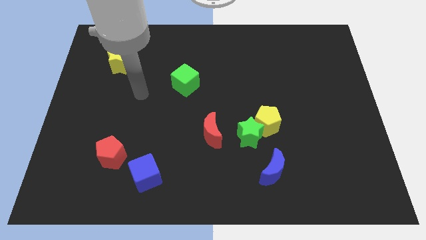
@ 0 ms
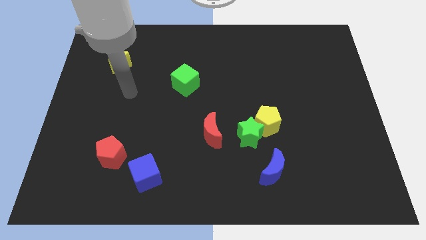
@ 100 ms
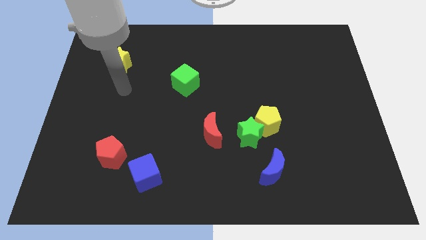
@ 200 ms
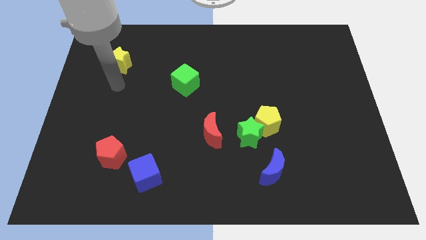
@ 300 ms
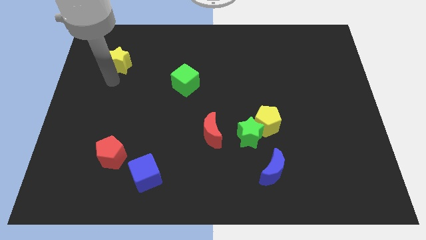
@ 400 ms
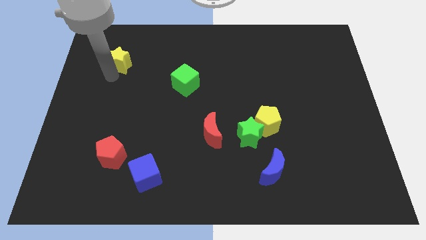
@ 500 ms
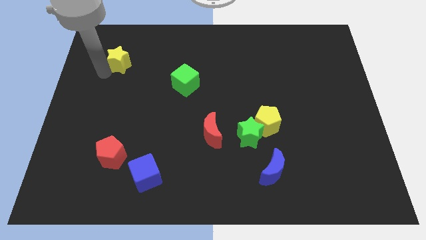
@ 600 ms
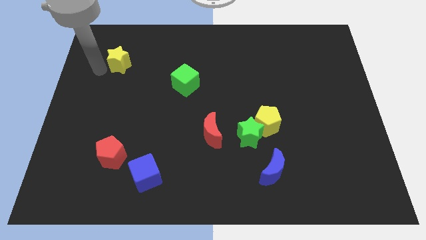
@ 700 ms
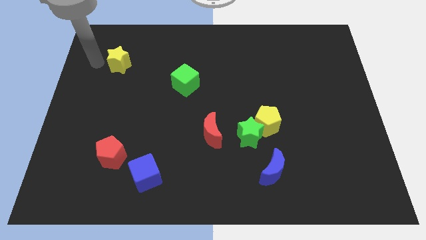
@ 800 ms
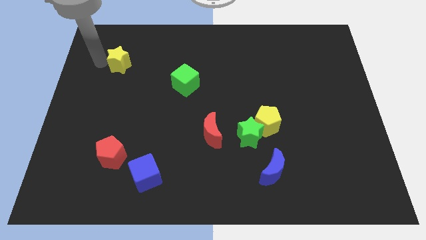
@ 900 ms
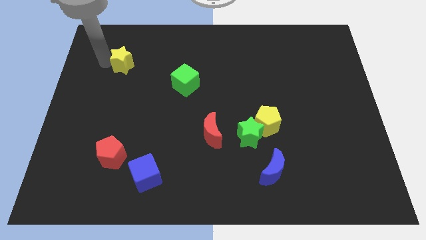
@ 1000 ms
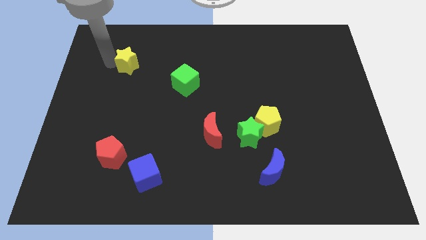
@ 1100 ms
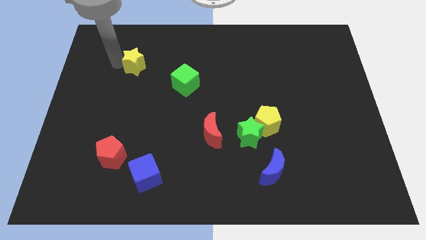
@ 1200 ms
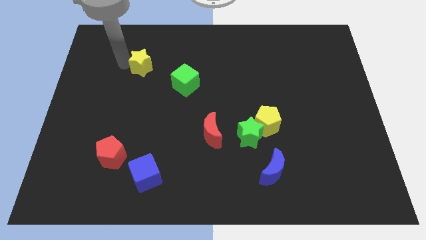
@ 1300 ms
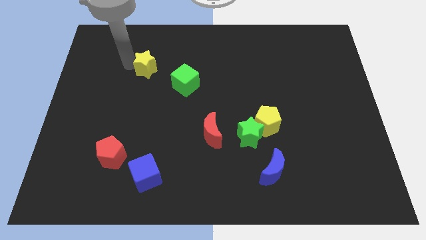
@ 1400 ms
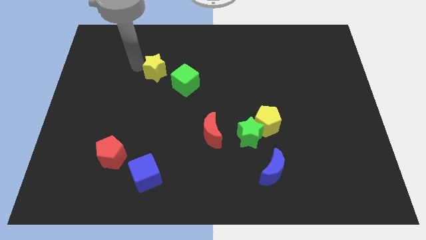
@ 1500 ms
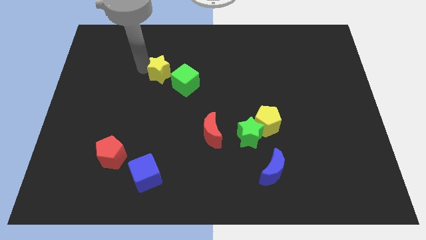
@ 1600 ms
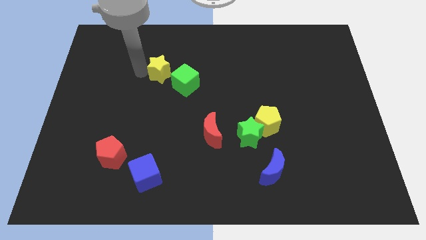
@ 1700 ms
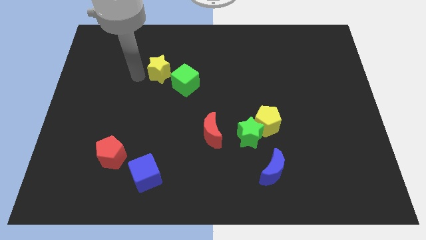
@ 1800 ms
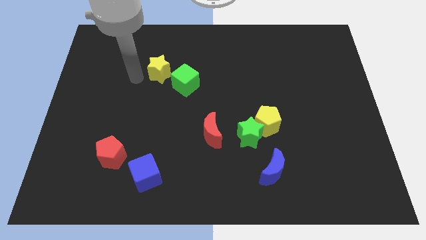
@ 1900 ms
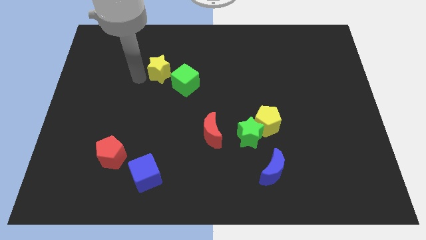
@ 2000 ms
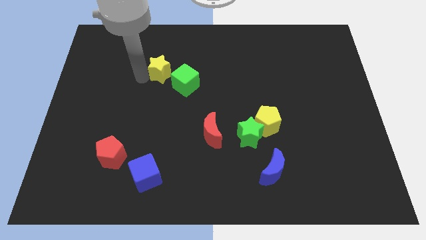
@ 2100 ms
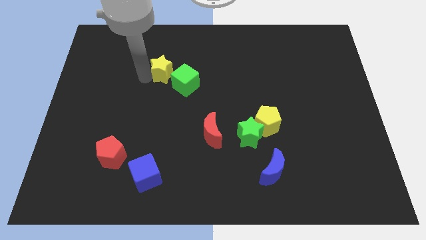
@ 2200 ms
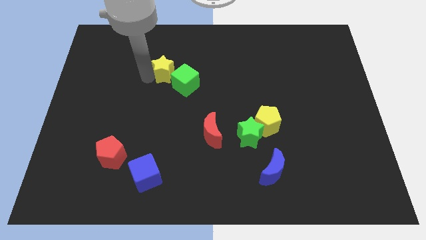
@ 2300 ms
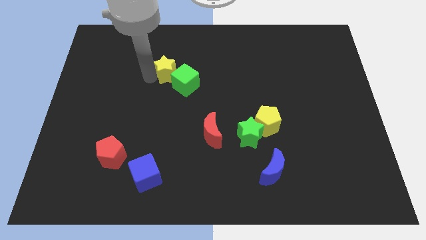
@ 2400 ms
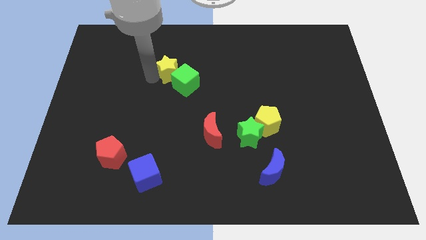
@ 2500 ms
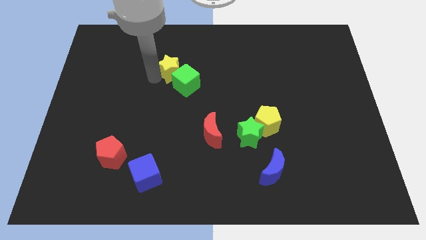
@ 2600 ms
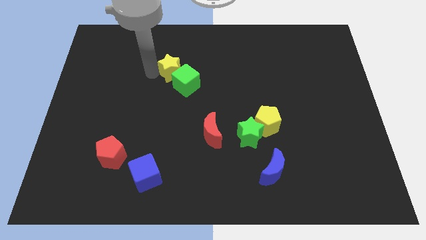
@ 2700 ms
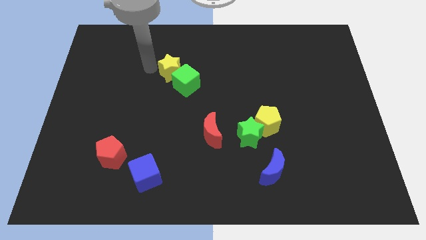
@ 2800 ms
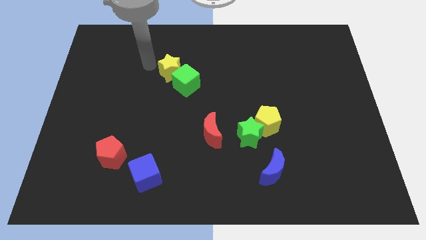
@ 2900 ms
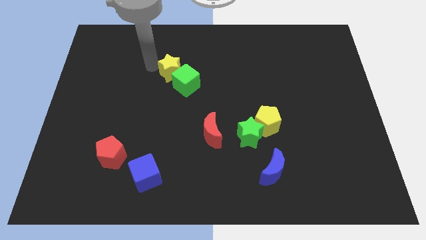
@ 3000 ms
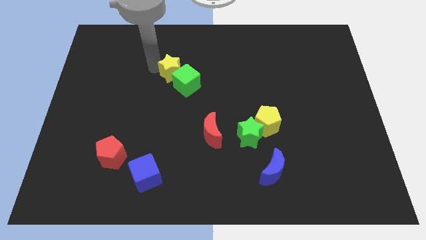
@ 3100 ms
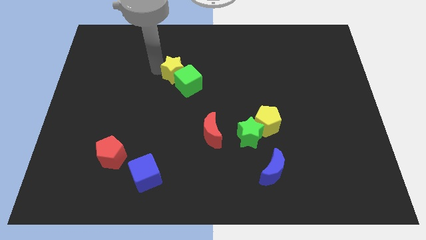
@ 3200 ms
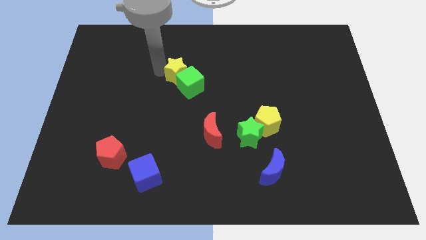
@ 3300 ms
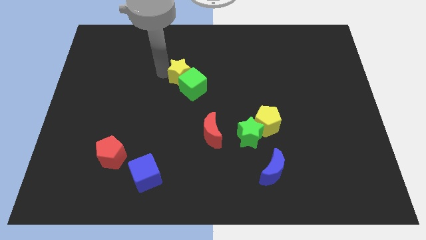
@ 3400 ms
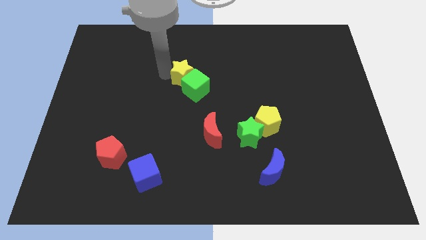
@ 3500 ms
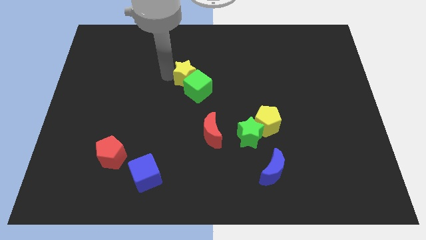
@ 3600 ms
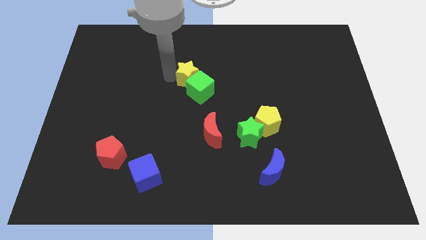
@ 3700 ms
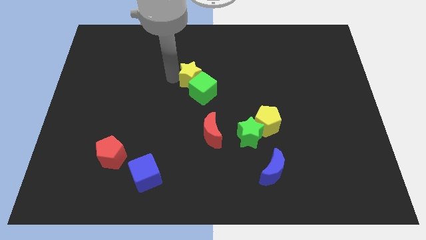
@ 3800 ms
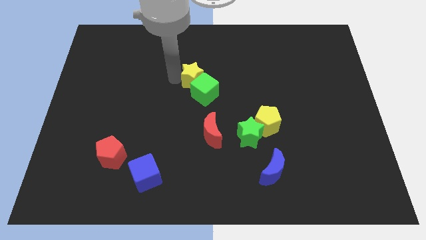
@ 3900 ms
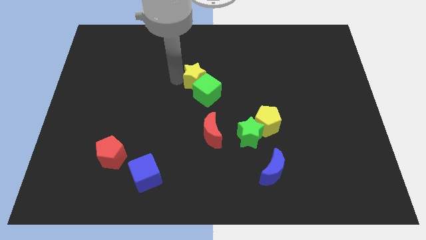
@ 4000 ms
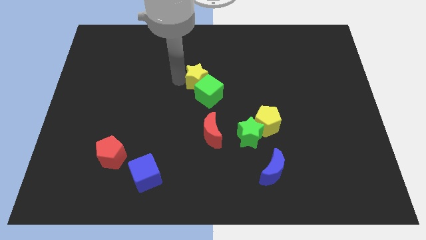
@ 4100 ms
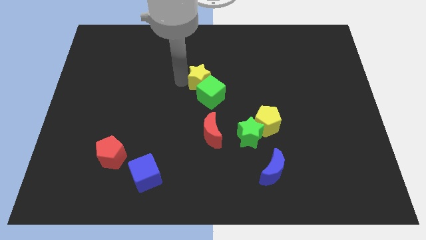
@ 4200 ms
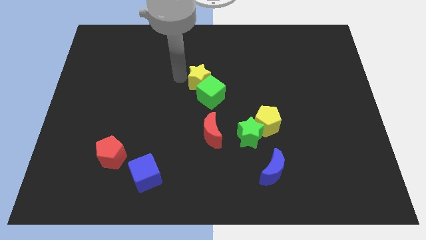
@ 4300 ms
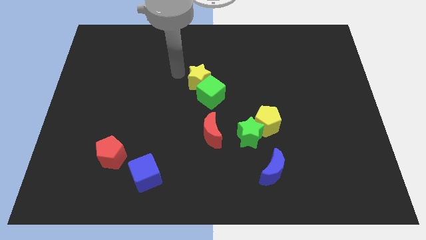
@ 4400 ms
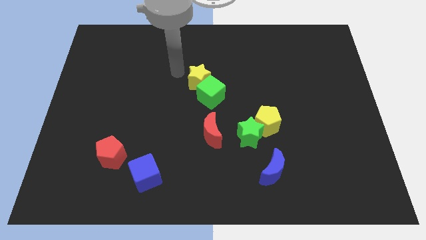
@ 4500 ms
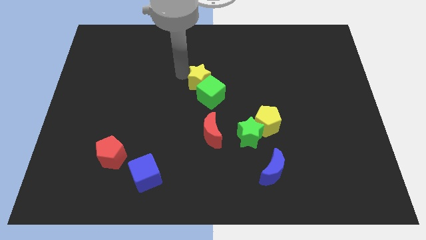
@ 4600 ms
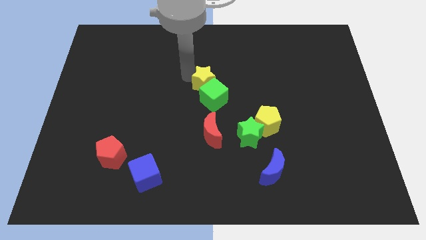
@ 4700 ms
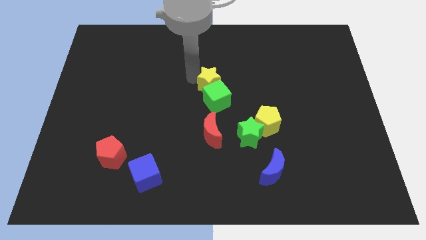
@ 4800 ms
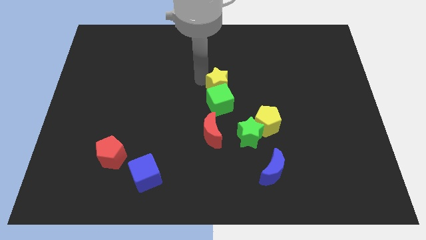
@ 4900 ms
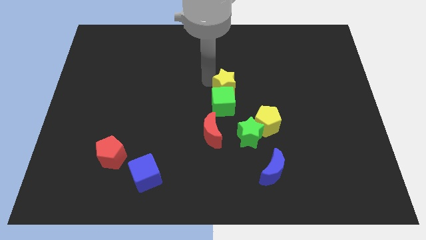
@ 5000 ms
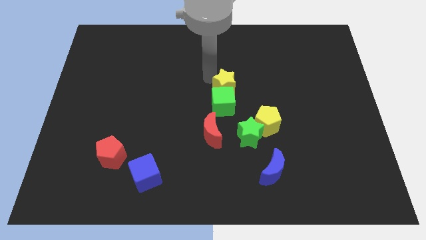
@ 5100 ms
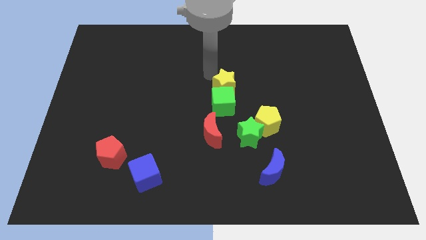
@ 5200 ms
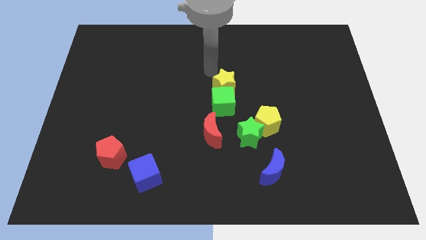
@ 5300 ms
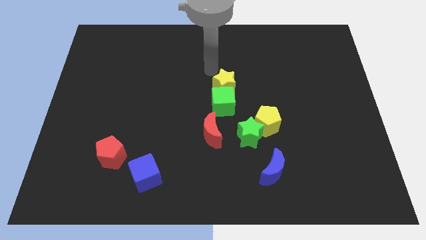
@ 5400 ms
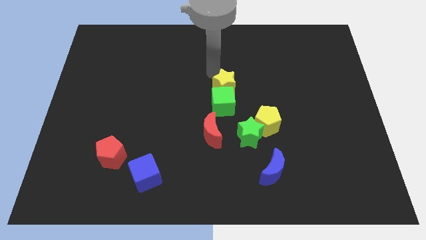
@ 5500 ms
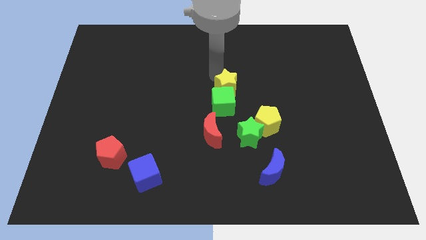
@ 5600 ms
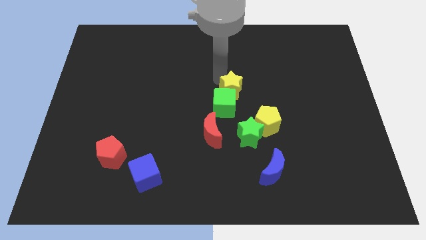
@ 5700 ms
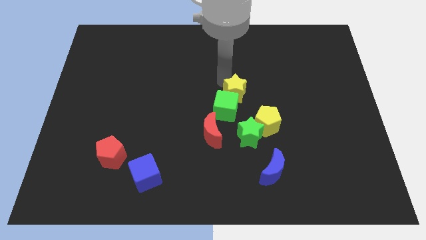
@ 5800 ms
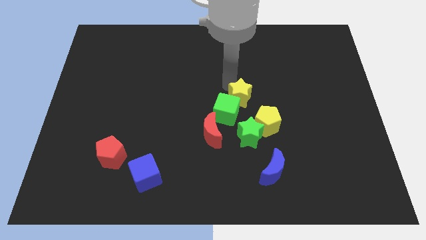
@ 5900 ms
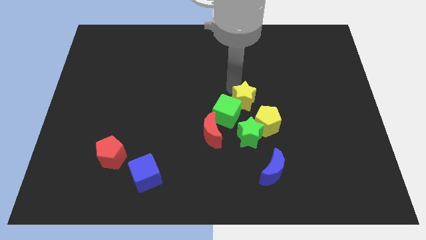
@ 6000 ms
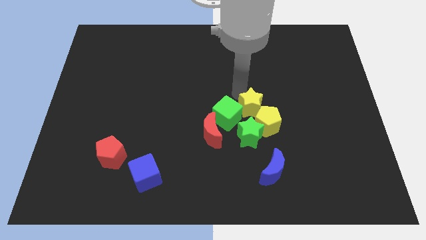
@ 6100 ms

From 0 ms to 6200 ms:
push the yellow star towards the yellow pentagon

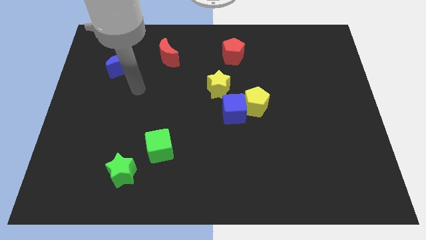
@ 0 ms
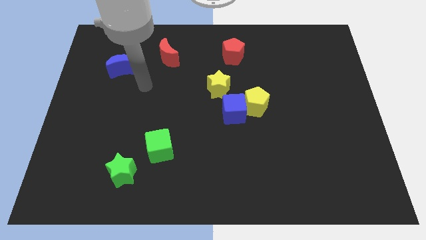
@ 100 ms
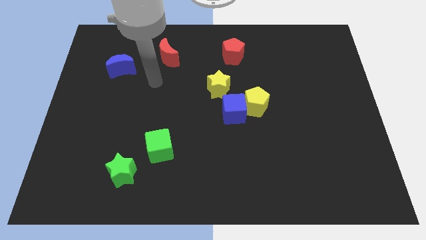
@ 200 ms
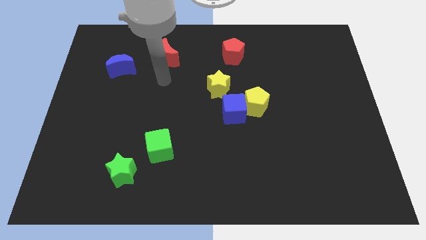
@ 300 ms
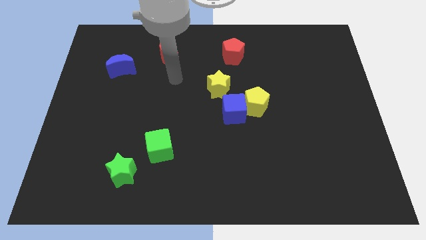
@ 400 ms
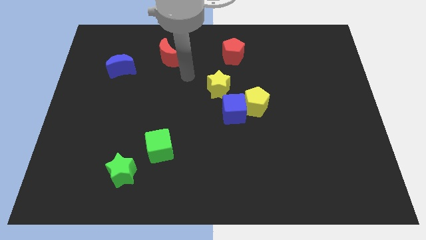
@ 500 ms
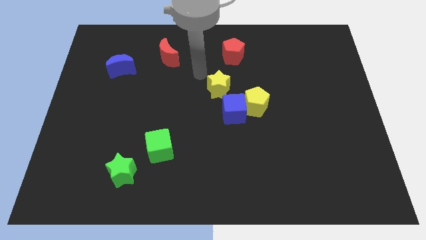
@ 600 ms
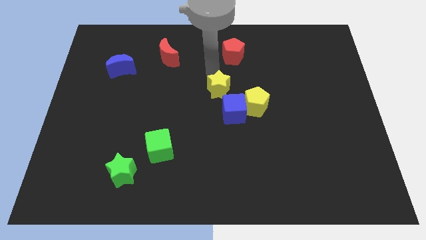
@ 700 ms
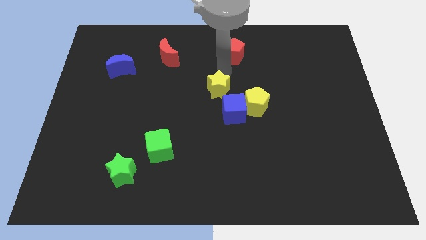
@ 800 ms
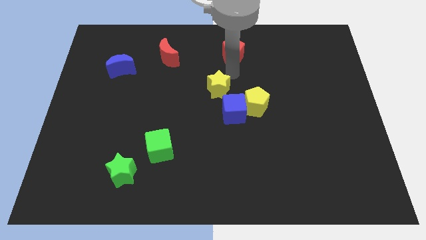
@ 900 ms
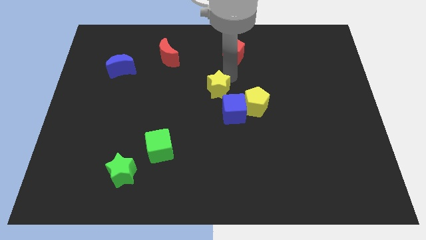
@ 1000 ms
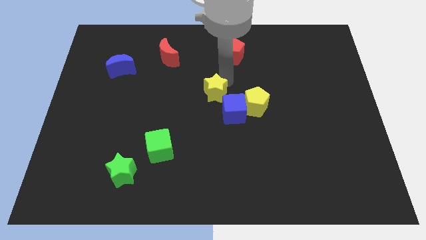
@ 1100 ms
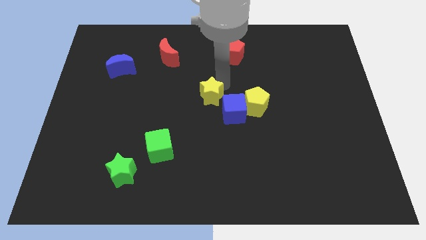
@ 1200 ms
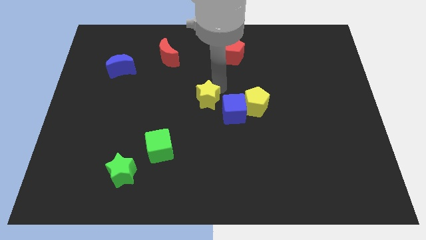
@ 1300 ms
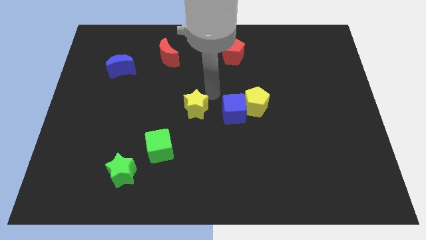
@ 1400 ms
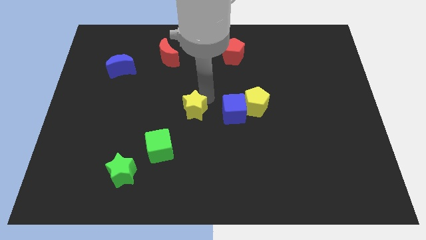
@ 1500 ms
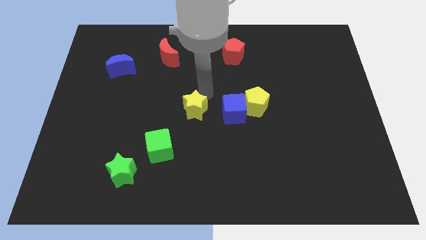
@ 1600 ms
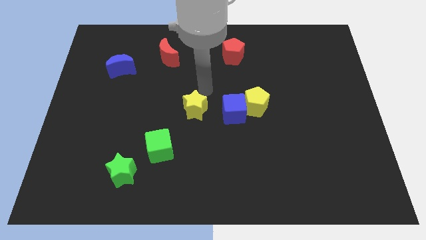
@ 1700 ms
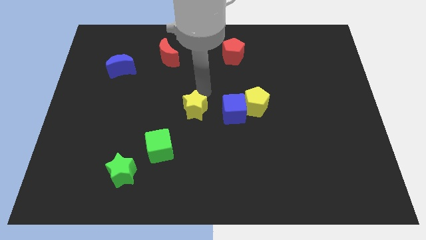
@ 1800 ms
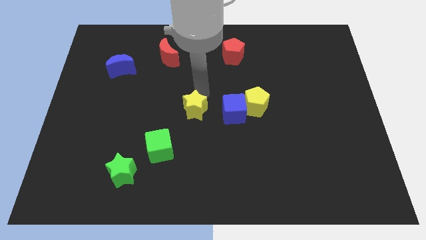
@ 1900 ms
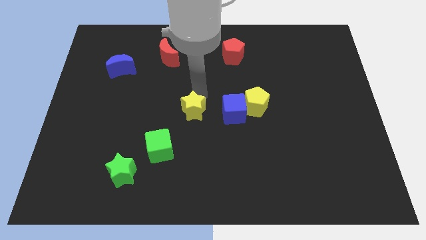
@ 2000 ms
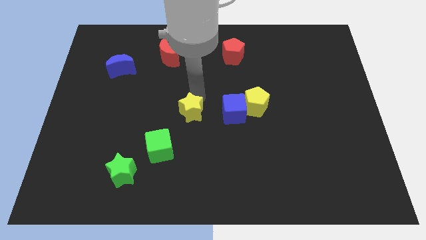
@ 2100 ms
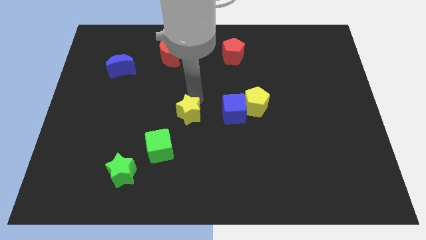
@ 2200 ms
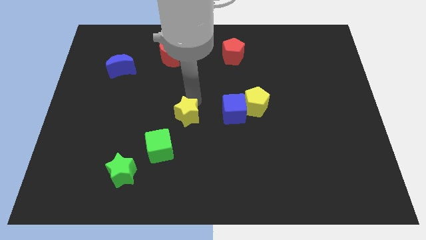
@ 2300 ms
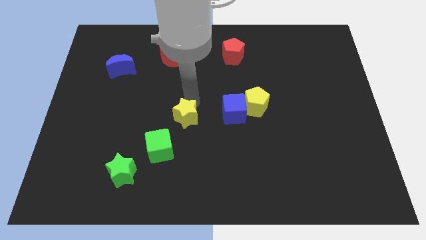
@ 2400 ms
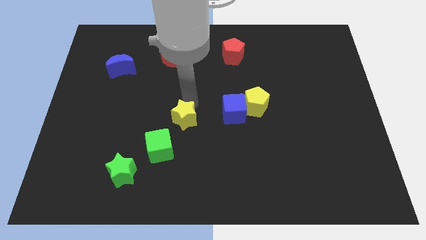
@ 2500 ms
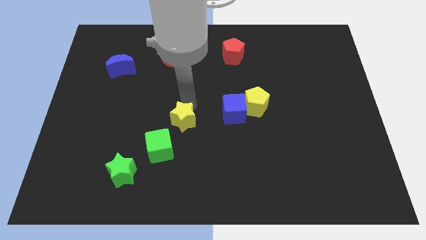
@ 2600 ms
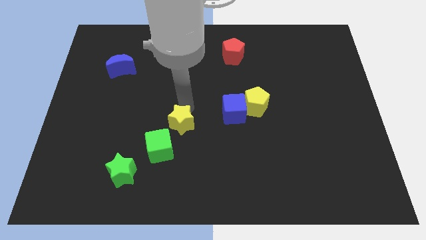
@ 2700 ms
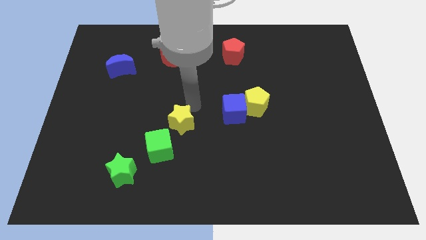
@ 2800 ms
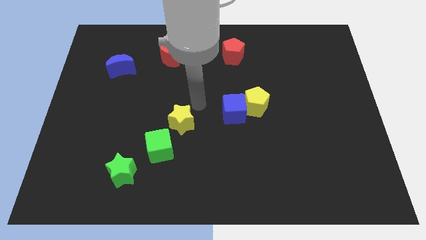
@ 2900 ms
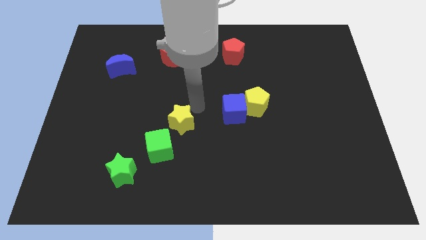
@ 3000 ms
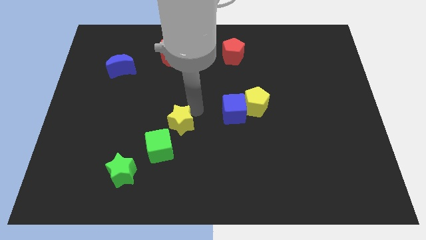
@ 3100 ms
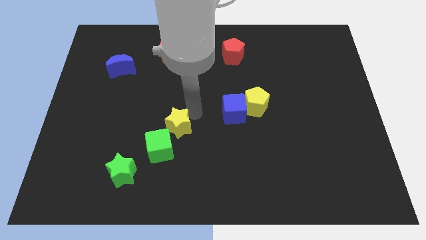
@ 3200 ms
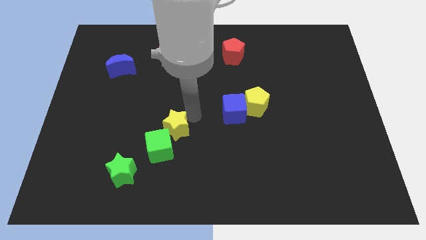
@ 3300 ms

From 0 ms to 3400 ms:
put the yellow star to the green cube
